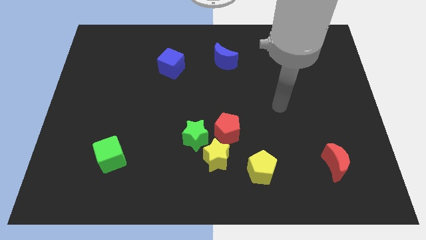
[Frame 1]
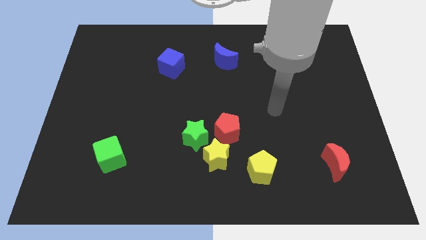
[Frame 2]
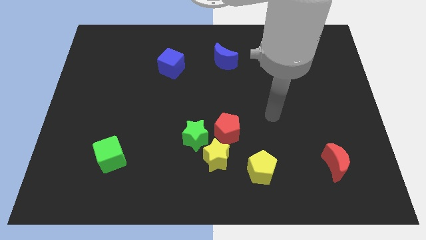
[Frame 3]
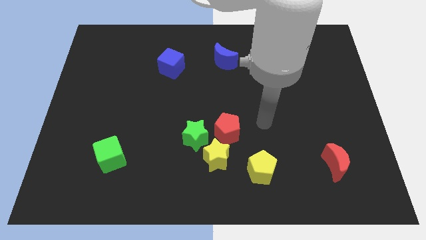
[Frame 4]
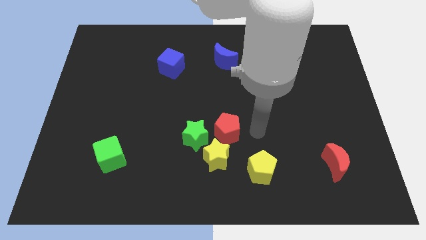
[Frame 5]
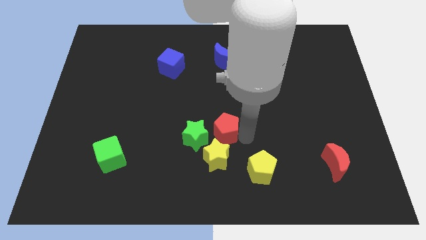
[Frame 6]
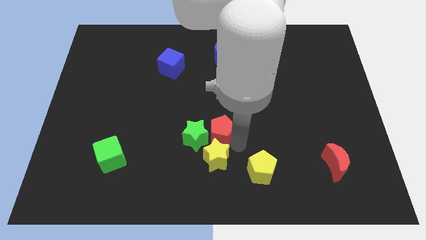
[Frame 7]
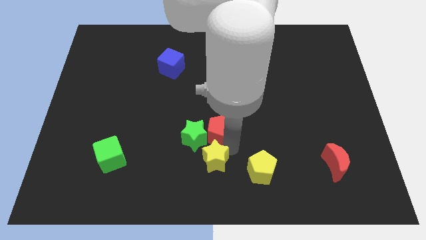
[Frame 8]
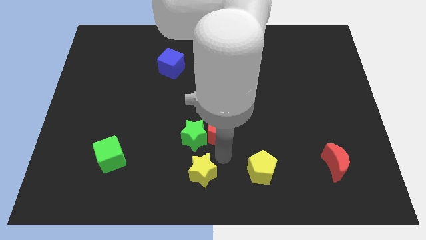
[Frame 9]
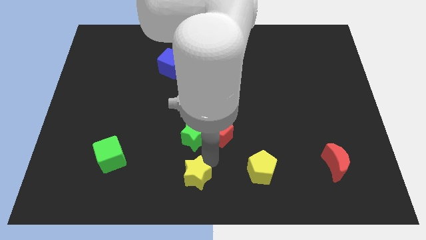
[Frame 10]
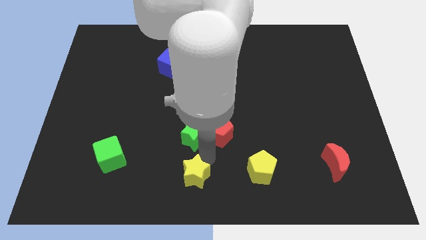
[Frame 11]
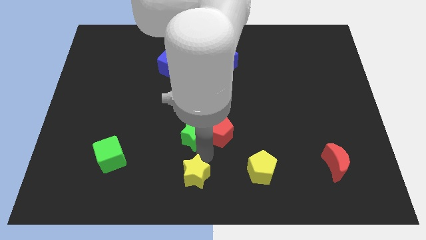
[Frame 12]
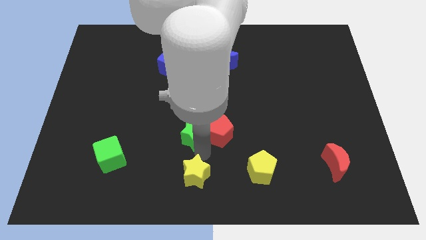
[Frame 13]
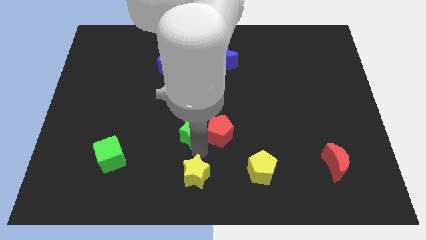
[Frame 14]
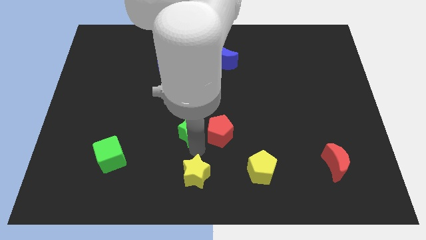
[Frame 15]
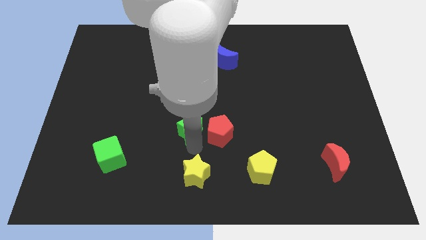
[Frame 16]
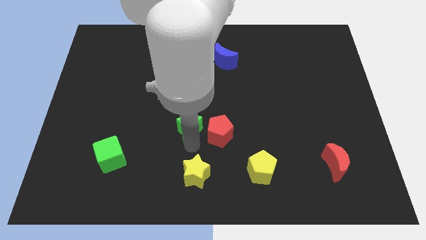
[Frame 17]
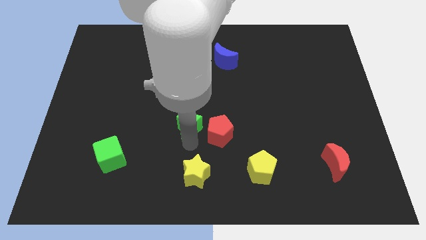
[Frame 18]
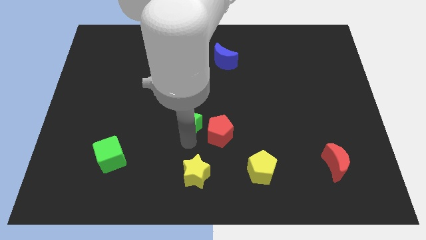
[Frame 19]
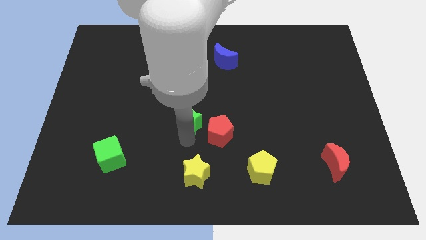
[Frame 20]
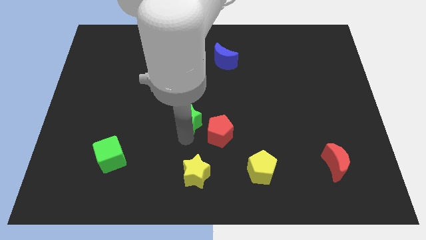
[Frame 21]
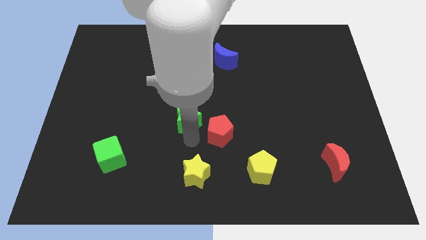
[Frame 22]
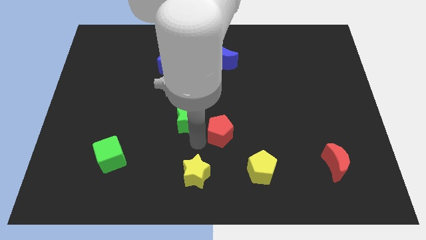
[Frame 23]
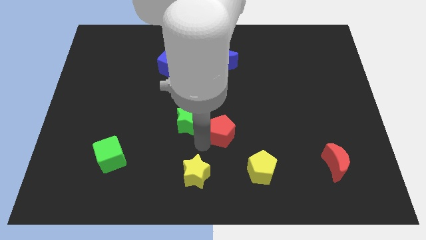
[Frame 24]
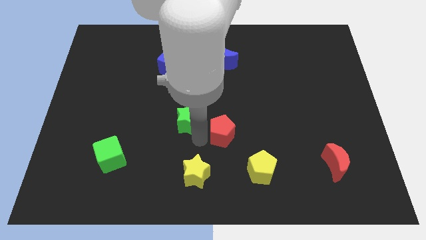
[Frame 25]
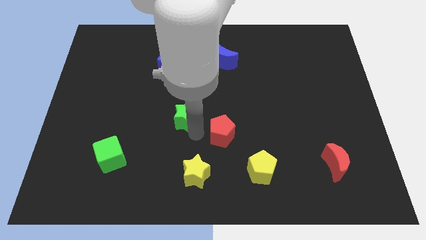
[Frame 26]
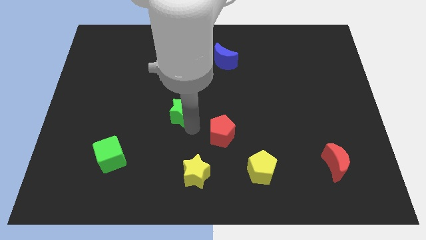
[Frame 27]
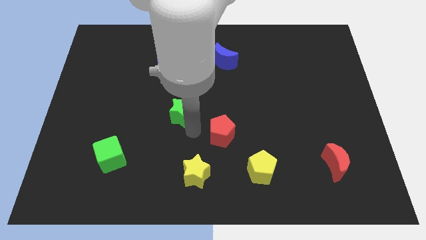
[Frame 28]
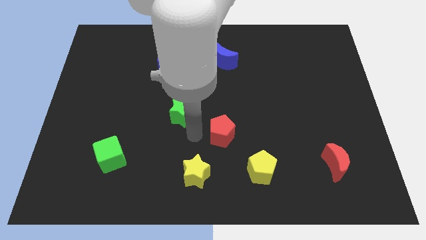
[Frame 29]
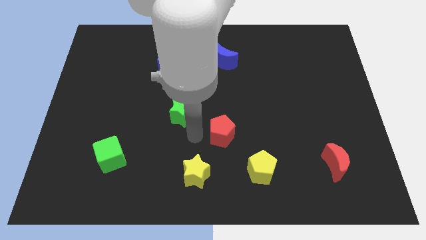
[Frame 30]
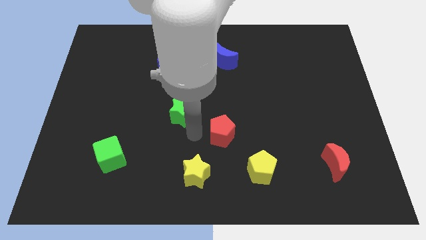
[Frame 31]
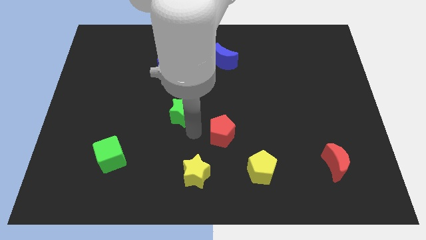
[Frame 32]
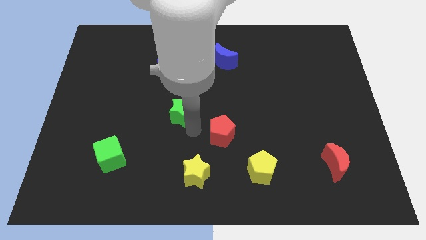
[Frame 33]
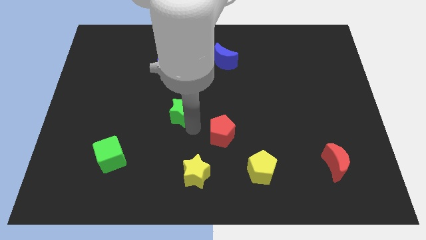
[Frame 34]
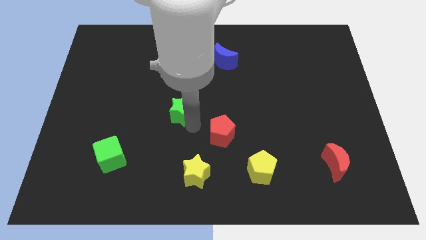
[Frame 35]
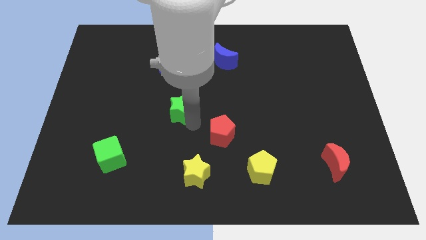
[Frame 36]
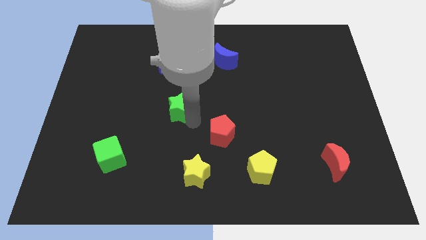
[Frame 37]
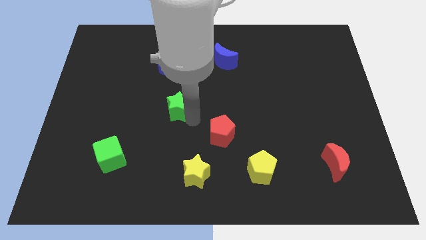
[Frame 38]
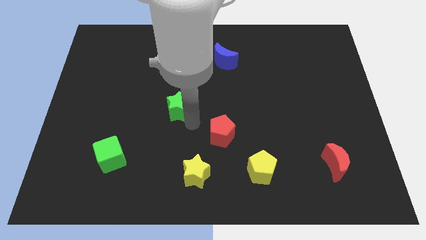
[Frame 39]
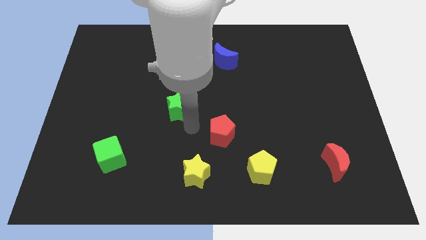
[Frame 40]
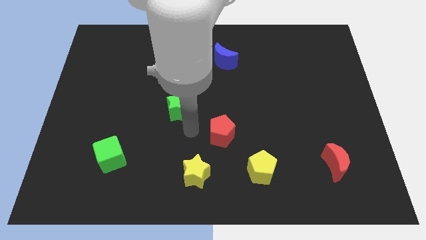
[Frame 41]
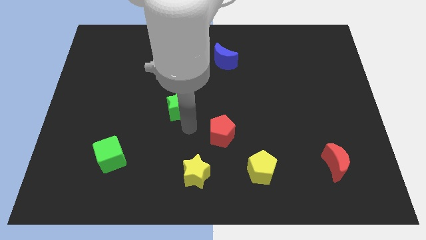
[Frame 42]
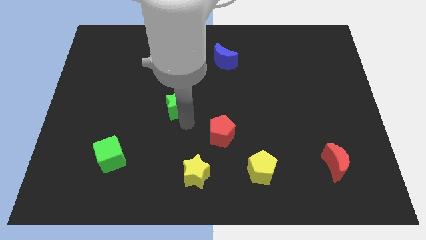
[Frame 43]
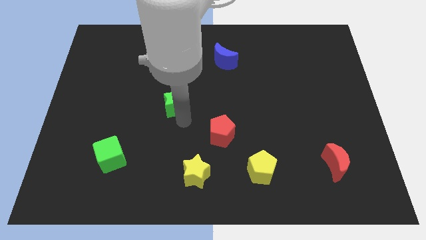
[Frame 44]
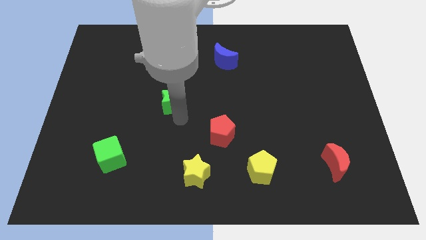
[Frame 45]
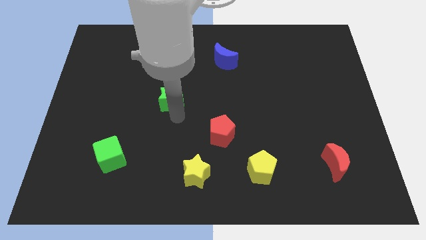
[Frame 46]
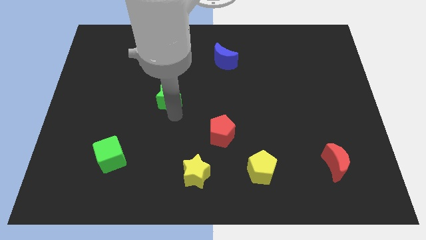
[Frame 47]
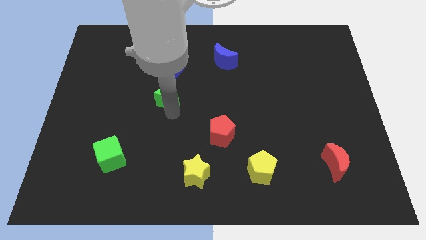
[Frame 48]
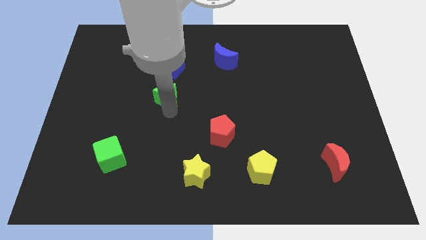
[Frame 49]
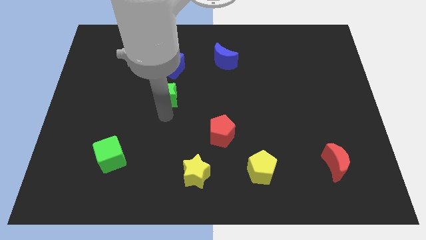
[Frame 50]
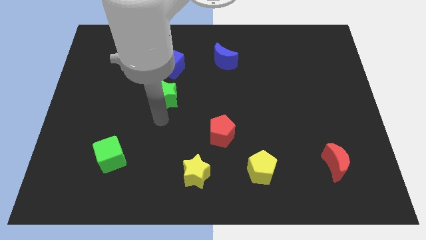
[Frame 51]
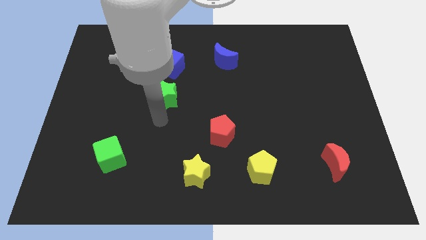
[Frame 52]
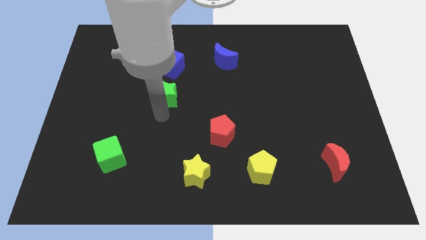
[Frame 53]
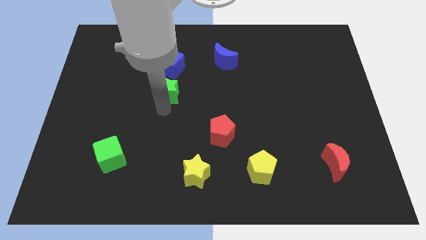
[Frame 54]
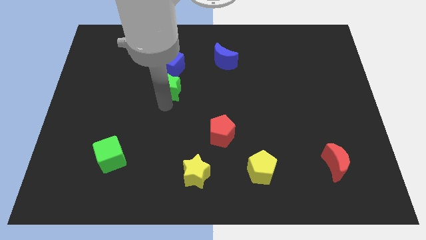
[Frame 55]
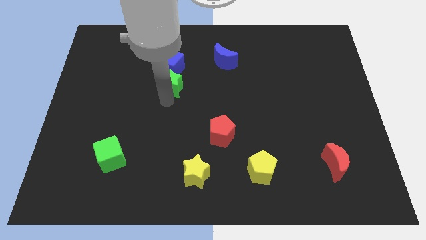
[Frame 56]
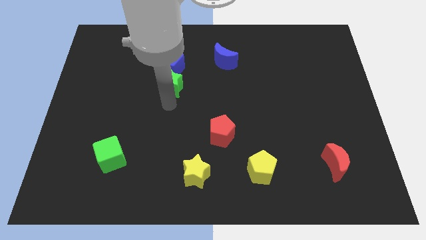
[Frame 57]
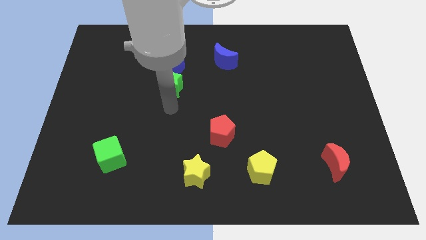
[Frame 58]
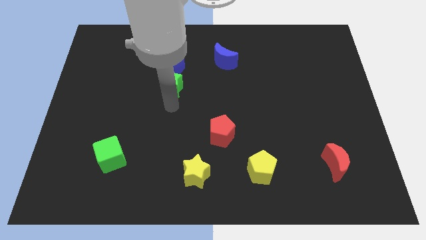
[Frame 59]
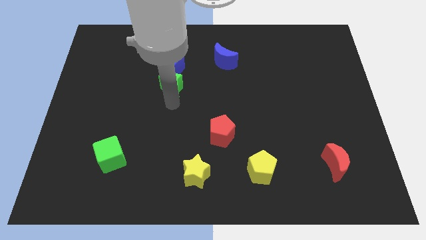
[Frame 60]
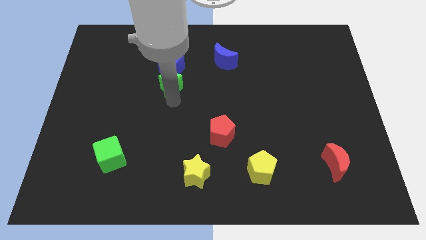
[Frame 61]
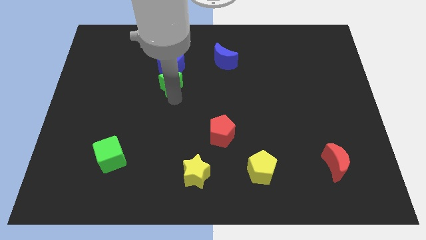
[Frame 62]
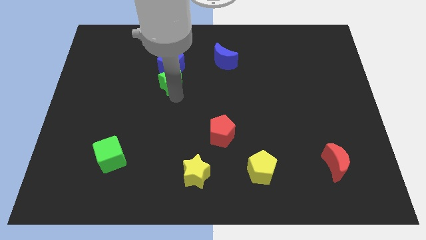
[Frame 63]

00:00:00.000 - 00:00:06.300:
move the green star next to the blue cube
